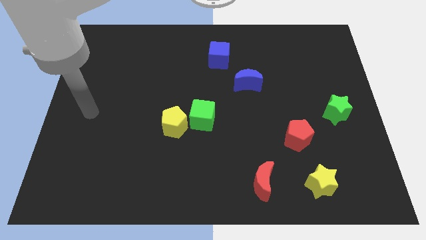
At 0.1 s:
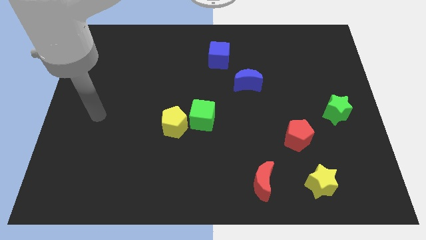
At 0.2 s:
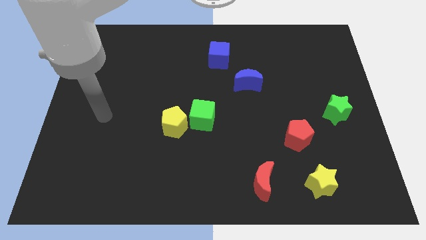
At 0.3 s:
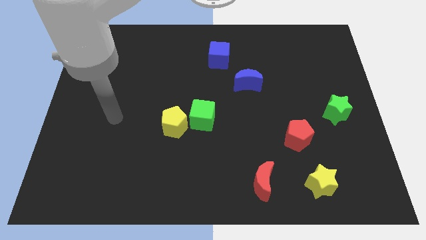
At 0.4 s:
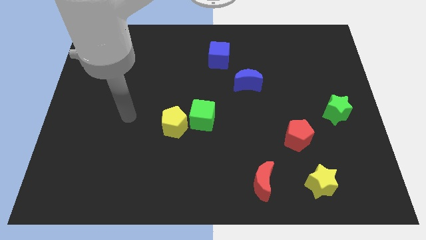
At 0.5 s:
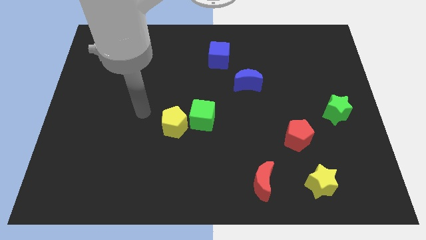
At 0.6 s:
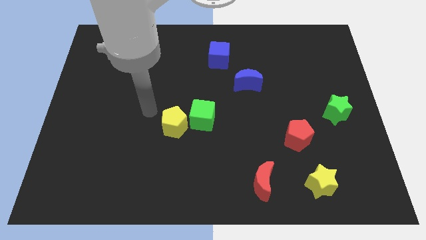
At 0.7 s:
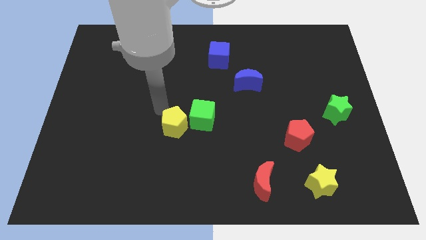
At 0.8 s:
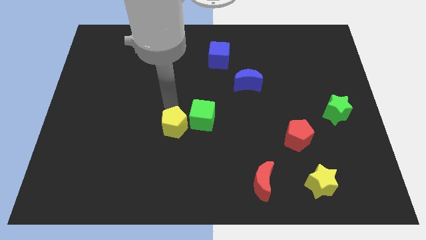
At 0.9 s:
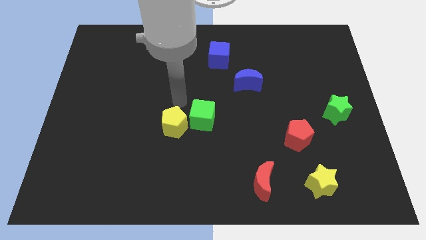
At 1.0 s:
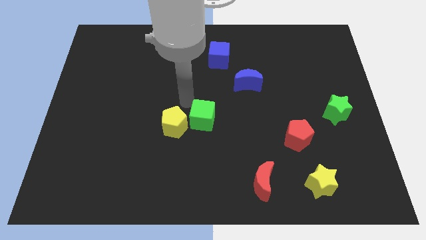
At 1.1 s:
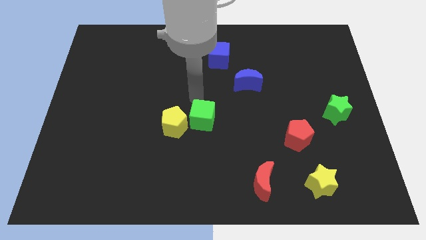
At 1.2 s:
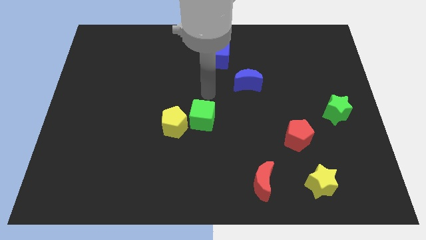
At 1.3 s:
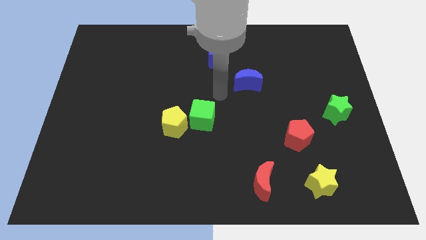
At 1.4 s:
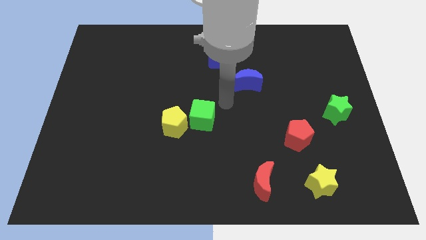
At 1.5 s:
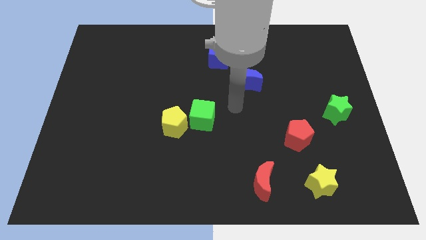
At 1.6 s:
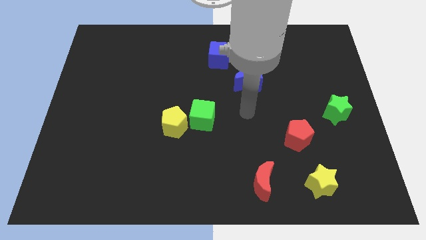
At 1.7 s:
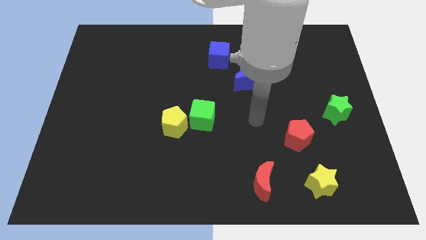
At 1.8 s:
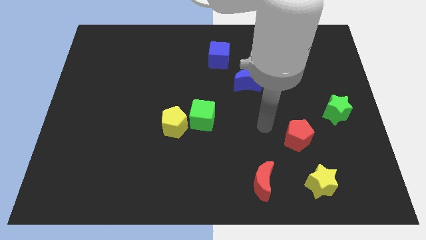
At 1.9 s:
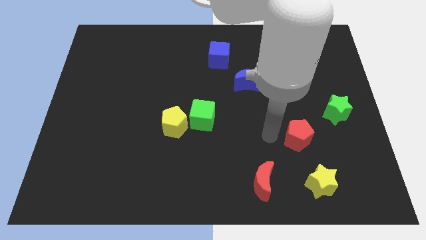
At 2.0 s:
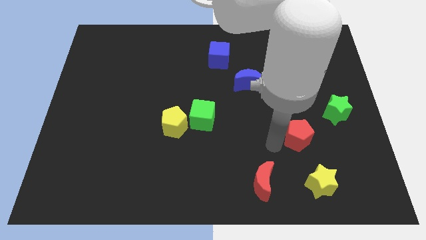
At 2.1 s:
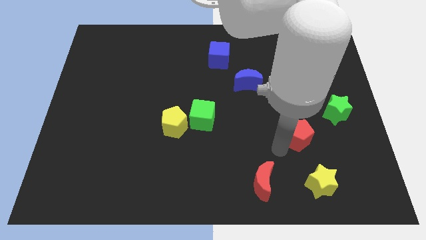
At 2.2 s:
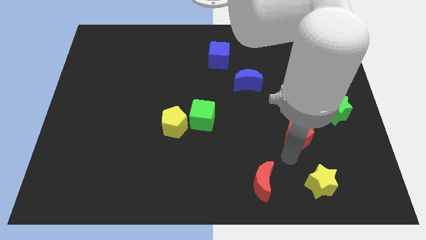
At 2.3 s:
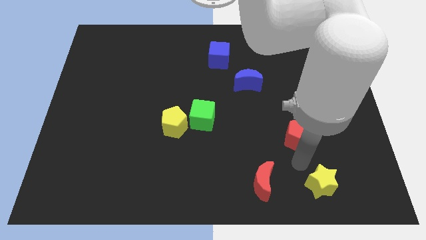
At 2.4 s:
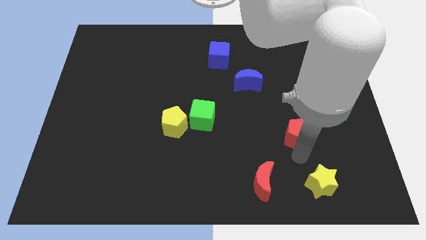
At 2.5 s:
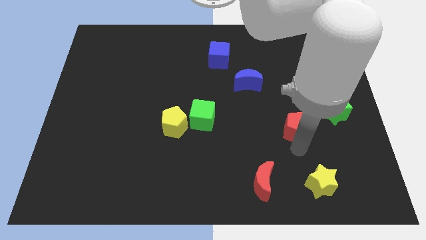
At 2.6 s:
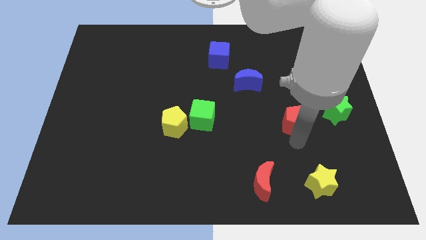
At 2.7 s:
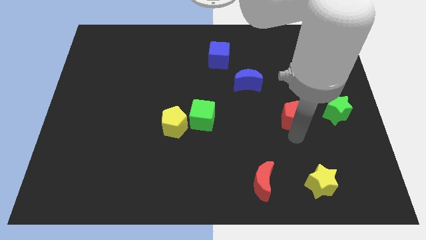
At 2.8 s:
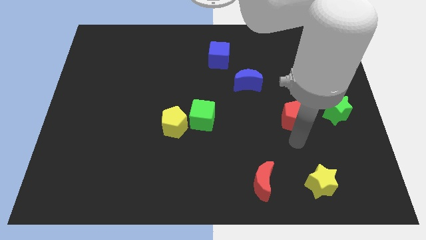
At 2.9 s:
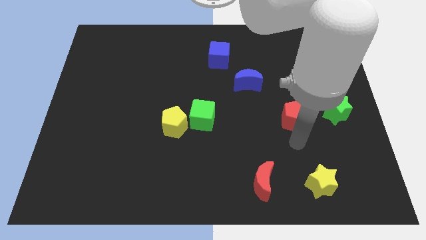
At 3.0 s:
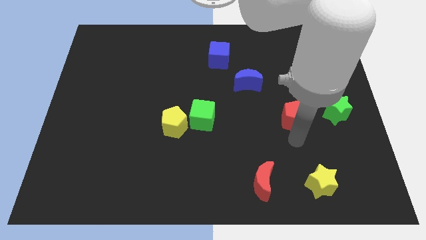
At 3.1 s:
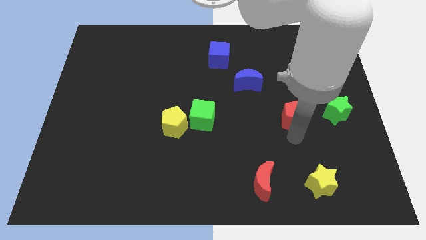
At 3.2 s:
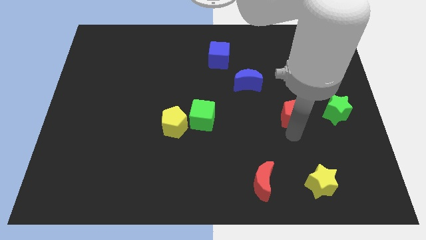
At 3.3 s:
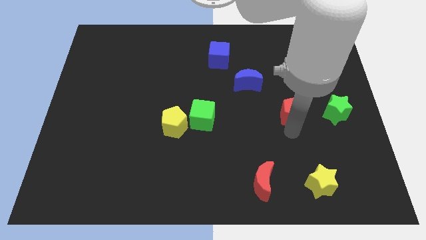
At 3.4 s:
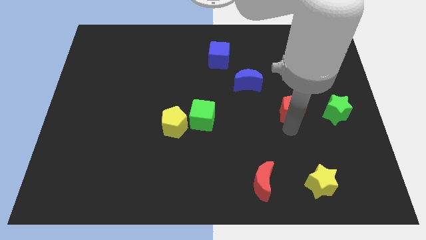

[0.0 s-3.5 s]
push the red pentagon up slightly

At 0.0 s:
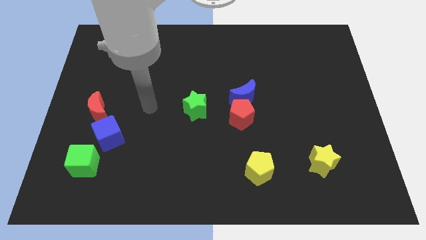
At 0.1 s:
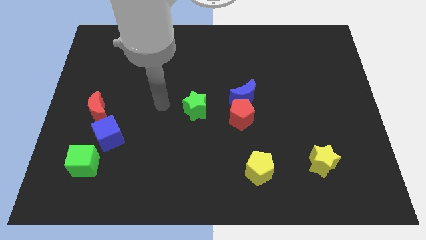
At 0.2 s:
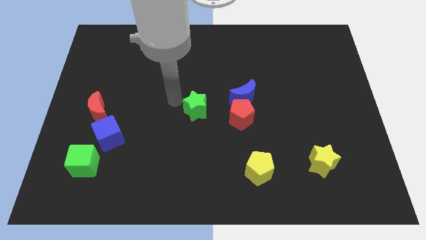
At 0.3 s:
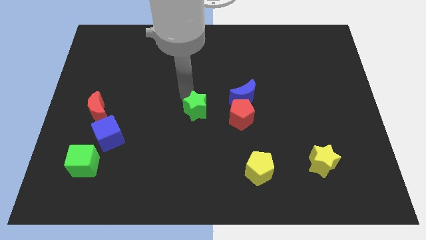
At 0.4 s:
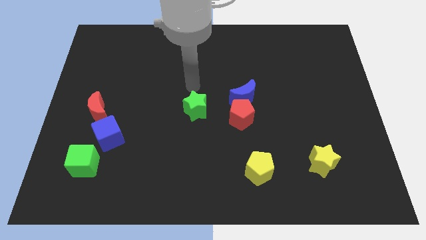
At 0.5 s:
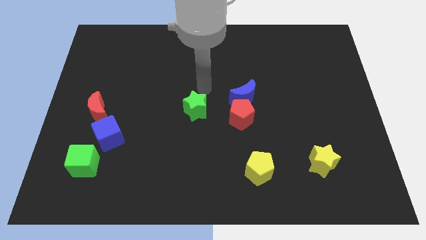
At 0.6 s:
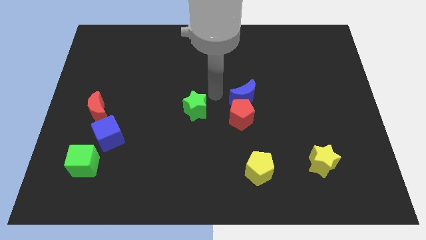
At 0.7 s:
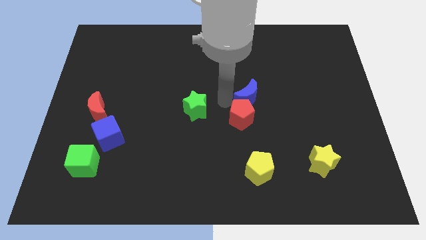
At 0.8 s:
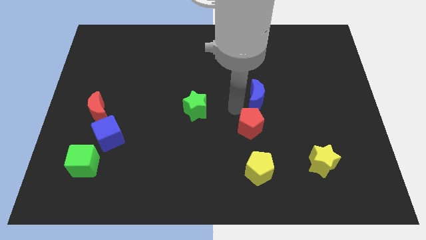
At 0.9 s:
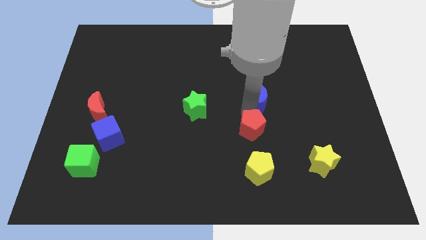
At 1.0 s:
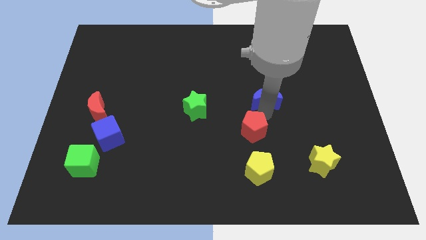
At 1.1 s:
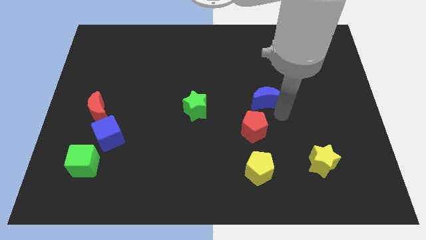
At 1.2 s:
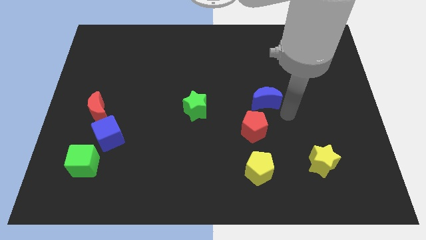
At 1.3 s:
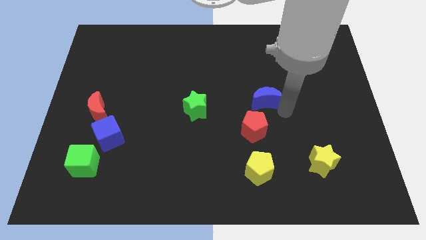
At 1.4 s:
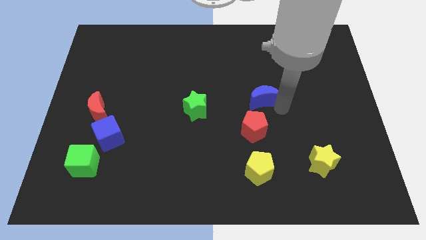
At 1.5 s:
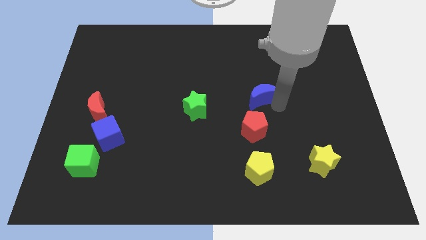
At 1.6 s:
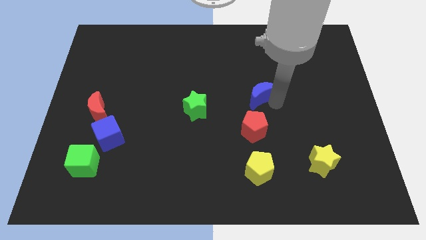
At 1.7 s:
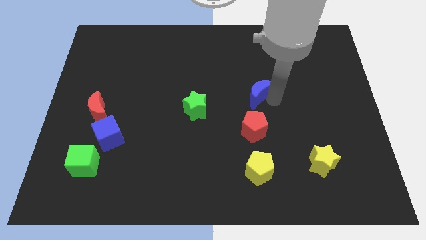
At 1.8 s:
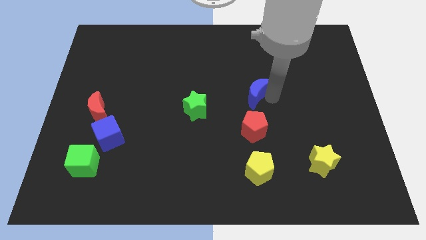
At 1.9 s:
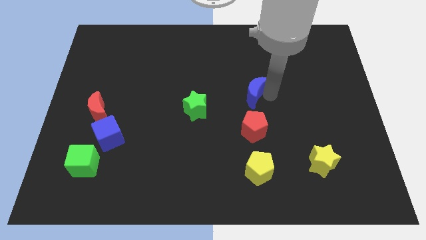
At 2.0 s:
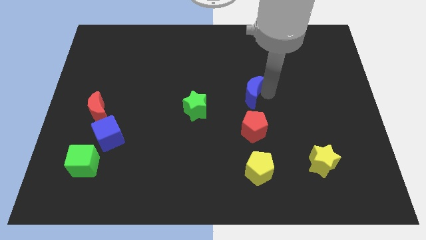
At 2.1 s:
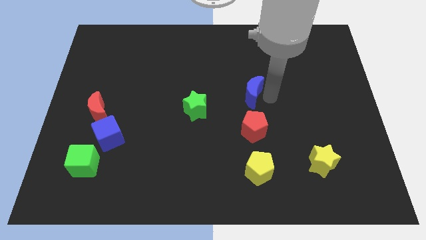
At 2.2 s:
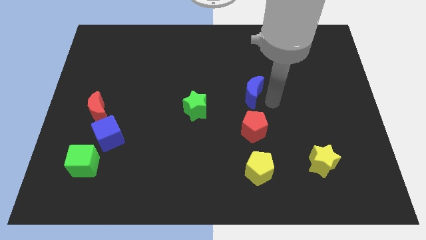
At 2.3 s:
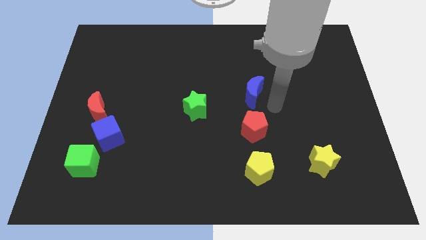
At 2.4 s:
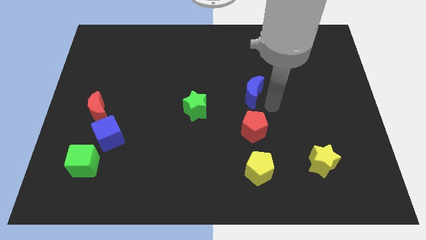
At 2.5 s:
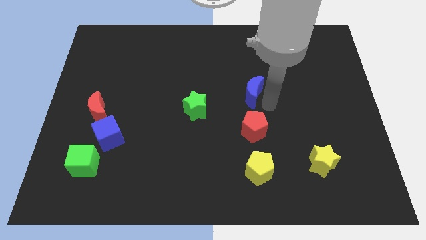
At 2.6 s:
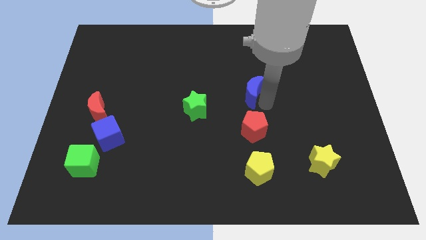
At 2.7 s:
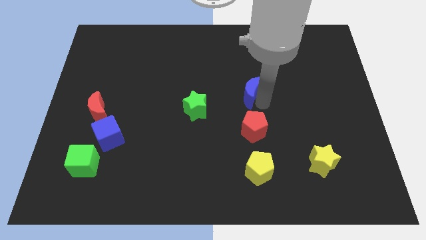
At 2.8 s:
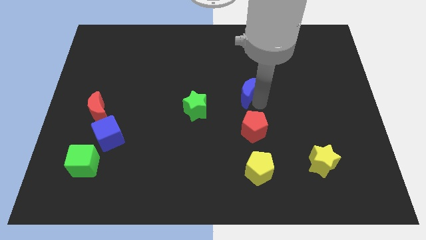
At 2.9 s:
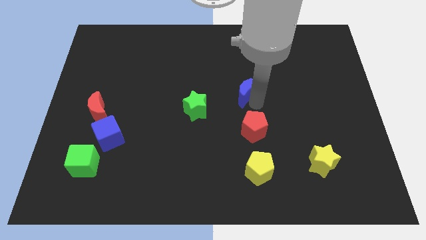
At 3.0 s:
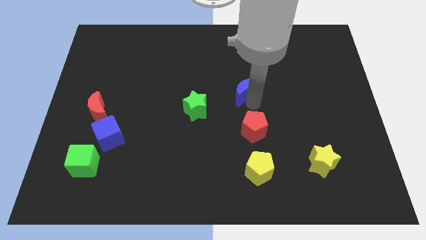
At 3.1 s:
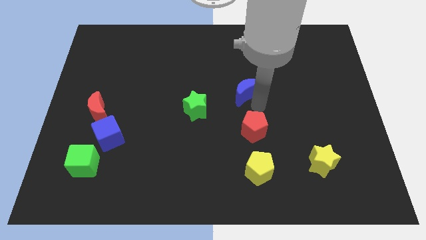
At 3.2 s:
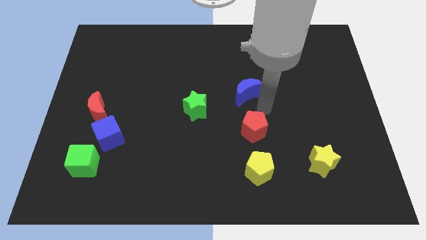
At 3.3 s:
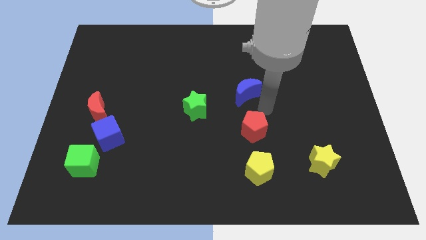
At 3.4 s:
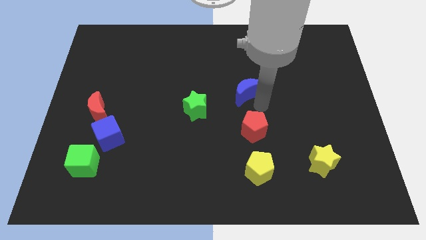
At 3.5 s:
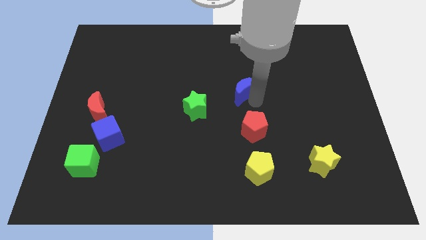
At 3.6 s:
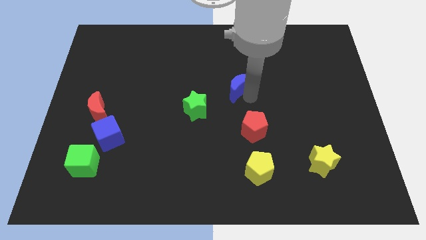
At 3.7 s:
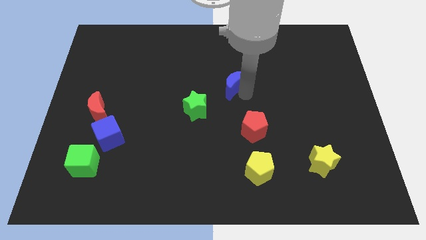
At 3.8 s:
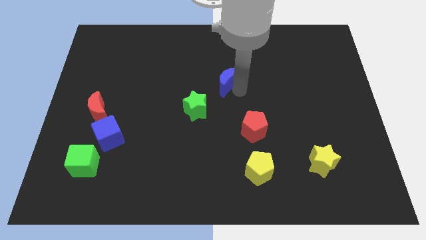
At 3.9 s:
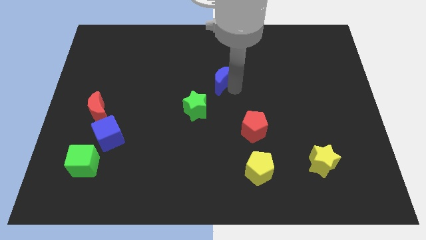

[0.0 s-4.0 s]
slide the blue moon upwards and left a little

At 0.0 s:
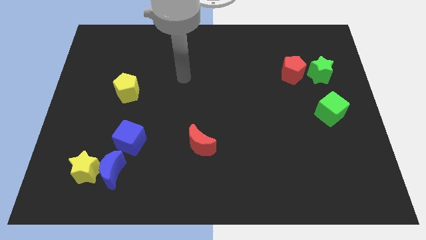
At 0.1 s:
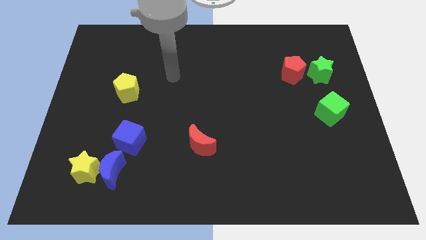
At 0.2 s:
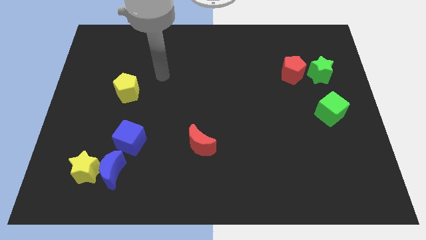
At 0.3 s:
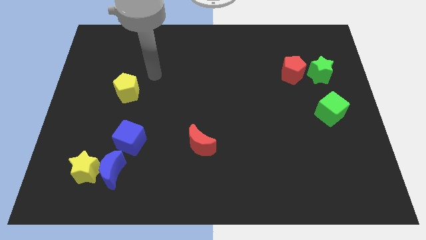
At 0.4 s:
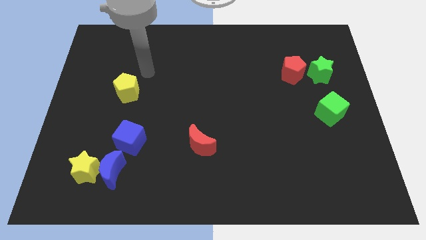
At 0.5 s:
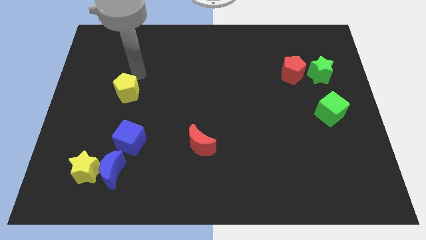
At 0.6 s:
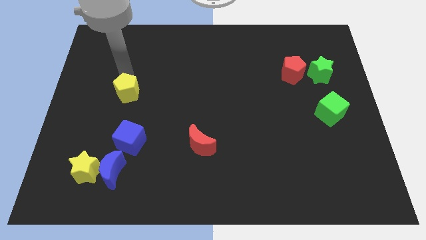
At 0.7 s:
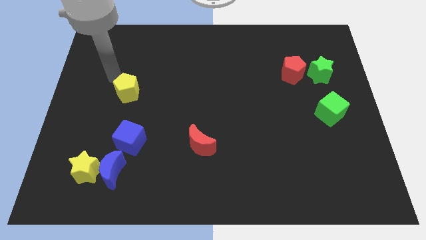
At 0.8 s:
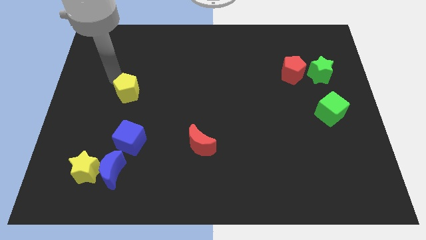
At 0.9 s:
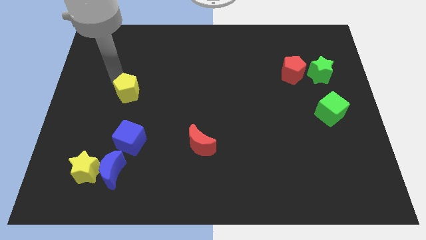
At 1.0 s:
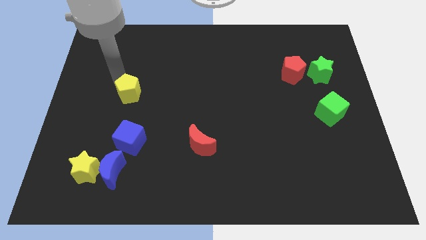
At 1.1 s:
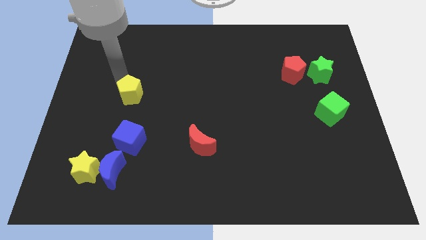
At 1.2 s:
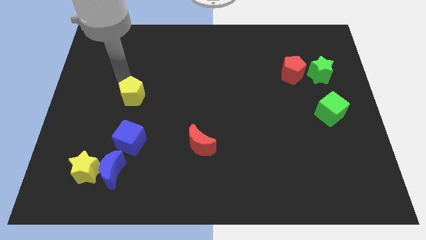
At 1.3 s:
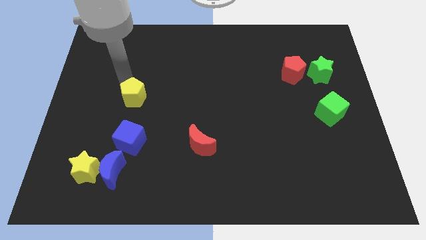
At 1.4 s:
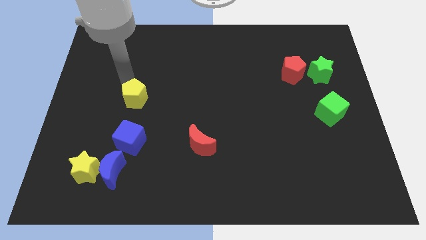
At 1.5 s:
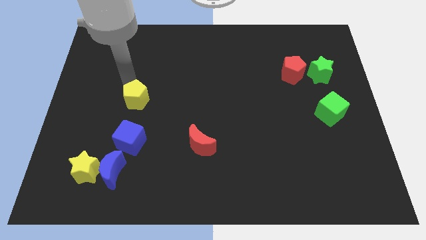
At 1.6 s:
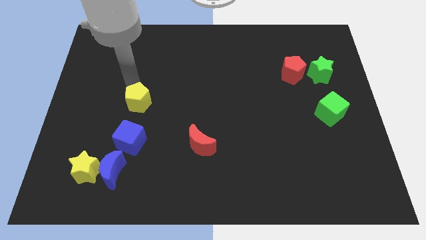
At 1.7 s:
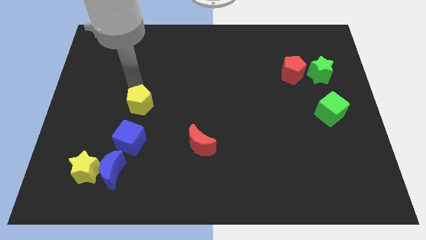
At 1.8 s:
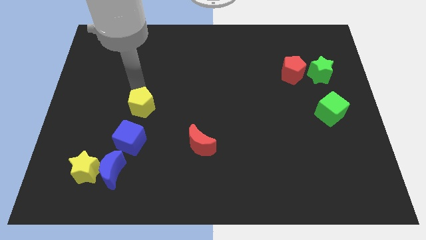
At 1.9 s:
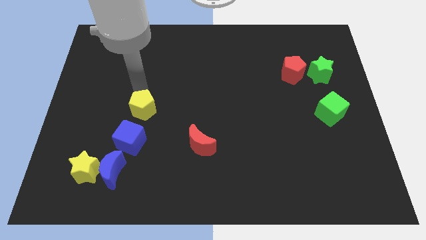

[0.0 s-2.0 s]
push the yellow pentagon slightly down and right diagonally
